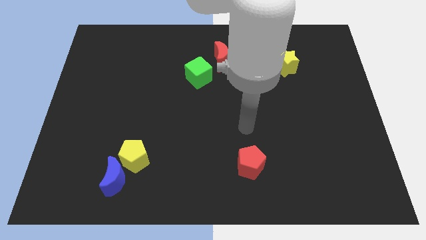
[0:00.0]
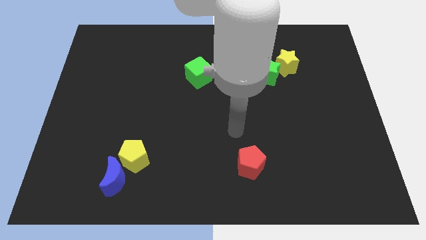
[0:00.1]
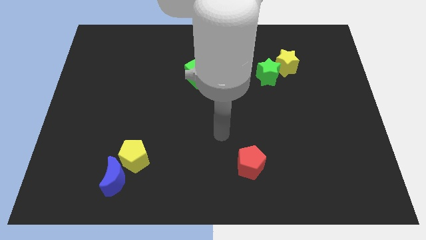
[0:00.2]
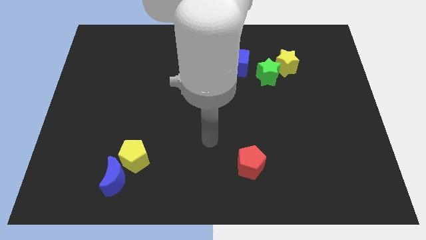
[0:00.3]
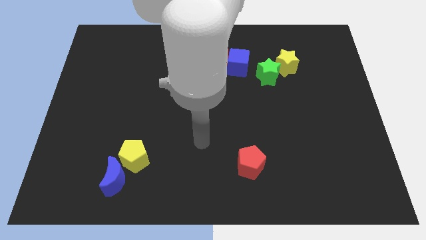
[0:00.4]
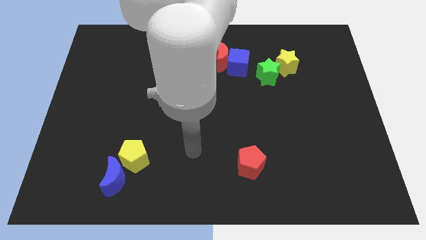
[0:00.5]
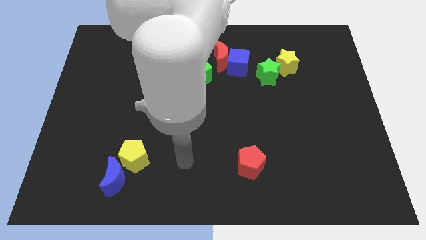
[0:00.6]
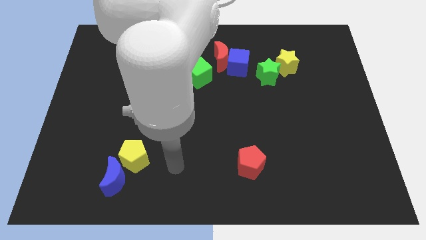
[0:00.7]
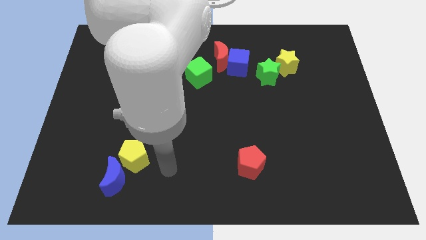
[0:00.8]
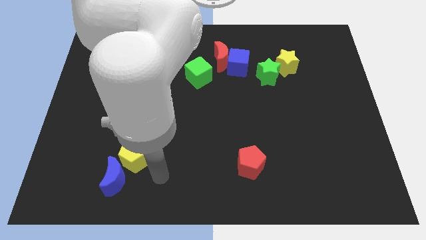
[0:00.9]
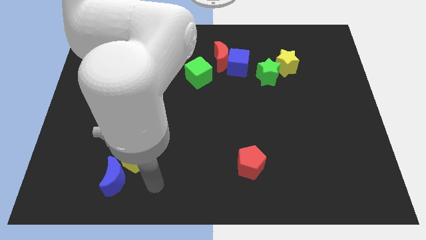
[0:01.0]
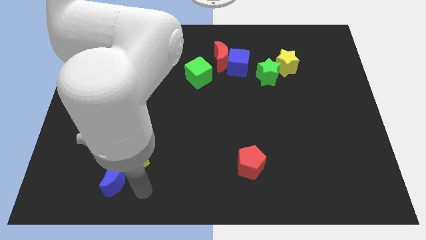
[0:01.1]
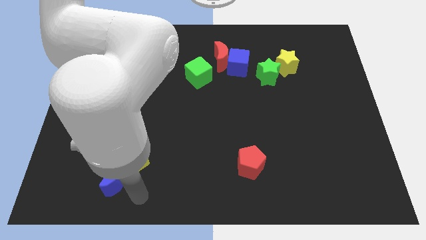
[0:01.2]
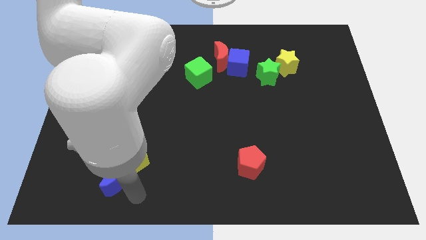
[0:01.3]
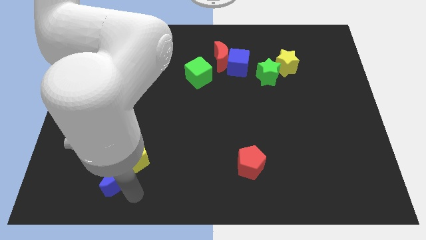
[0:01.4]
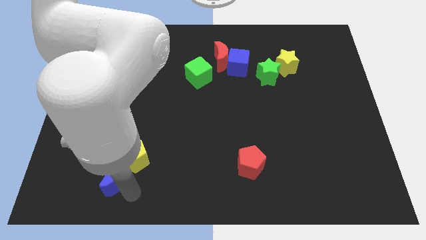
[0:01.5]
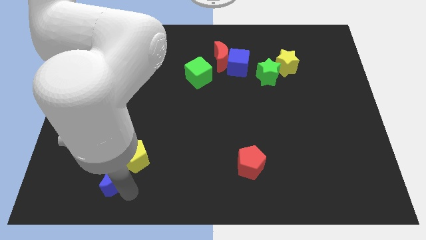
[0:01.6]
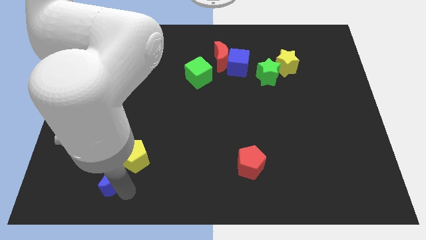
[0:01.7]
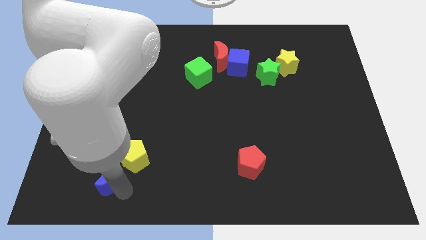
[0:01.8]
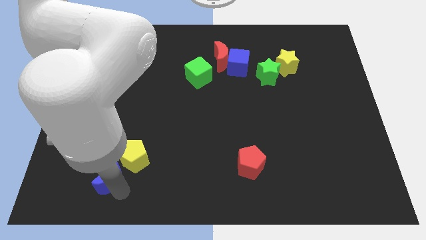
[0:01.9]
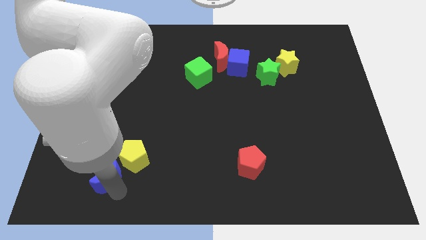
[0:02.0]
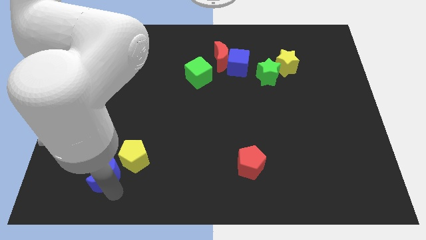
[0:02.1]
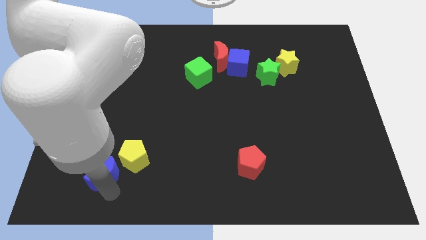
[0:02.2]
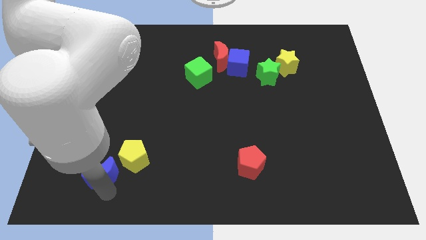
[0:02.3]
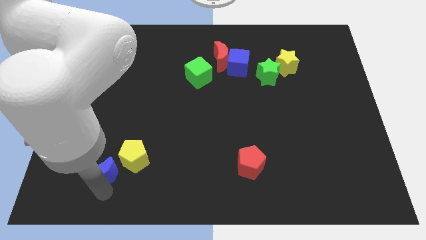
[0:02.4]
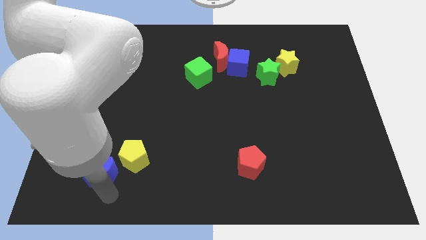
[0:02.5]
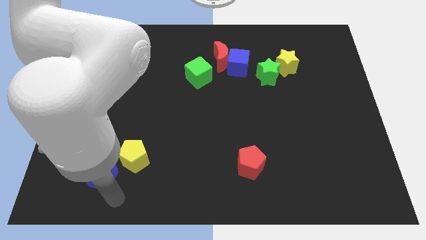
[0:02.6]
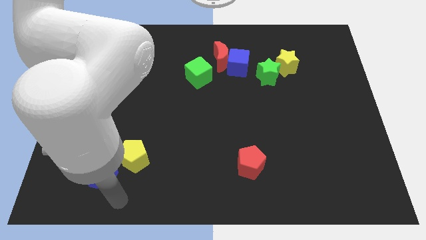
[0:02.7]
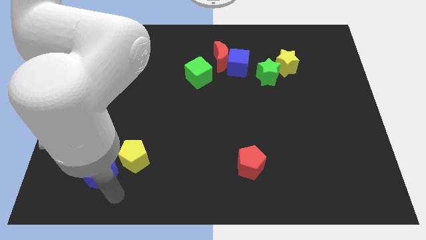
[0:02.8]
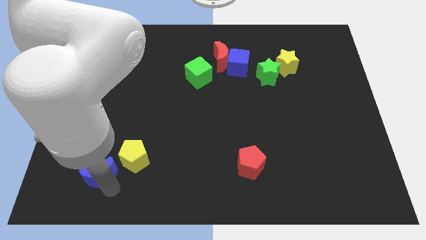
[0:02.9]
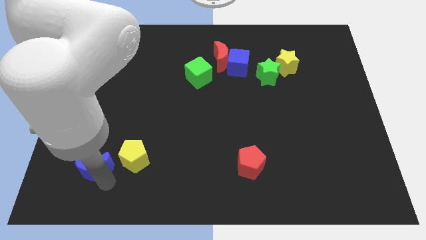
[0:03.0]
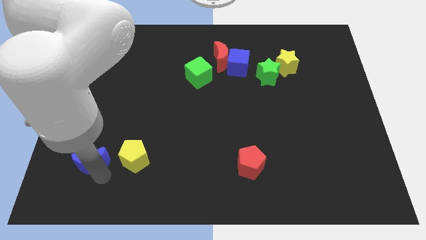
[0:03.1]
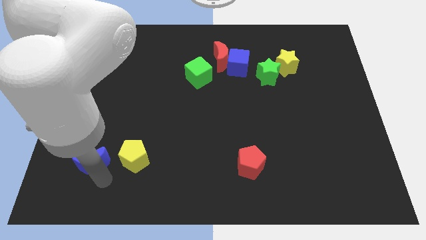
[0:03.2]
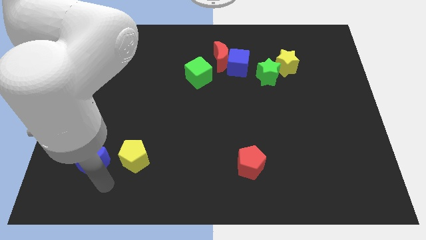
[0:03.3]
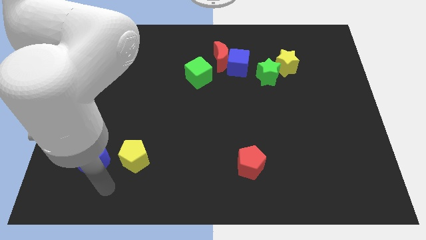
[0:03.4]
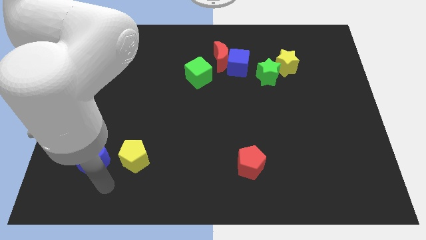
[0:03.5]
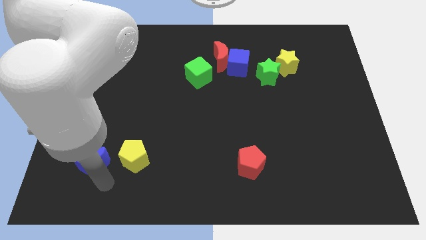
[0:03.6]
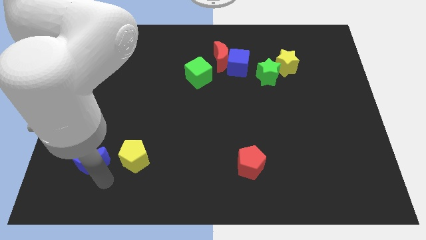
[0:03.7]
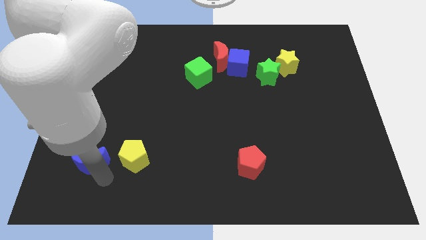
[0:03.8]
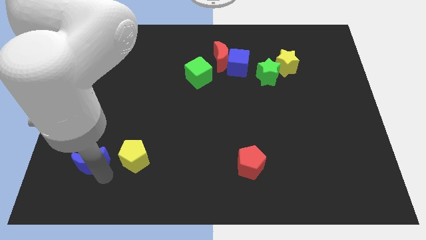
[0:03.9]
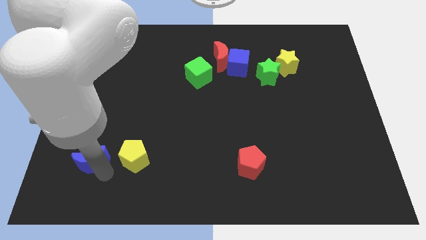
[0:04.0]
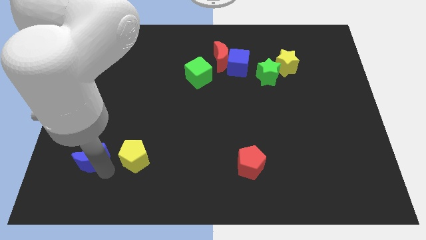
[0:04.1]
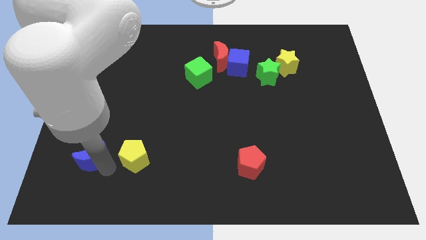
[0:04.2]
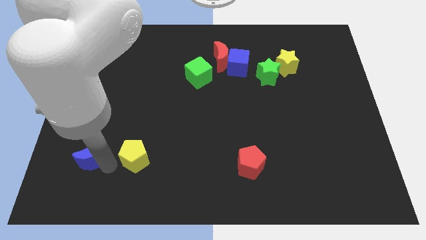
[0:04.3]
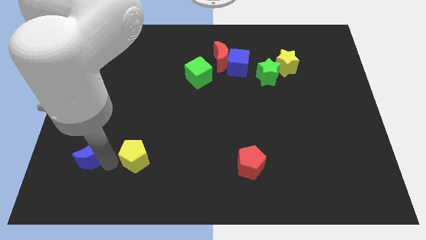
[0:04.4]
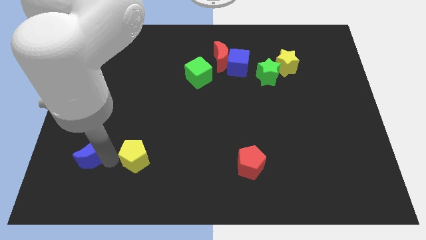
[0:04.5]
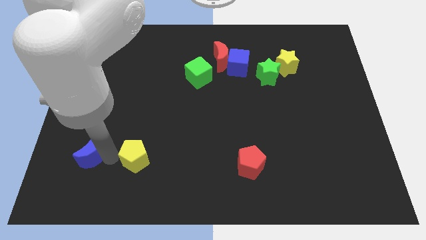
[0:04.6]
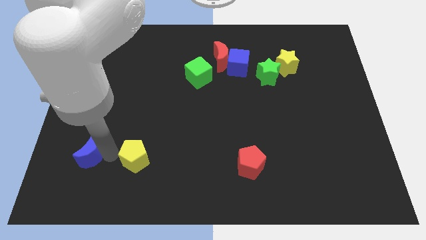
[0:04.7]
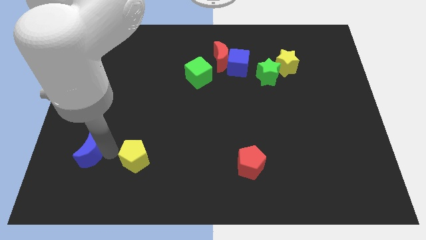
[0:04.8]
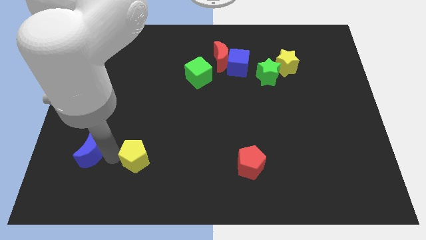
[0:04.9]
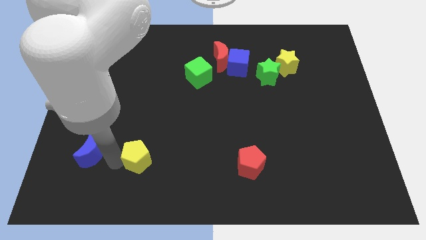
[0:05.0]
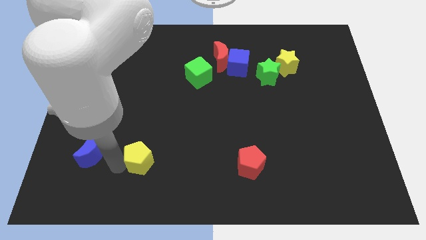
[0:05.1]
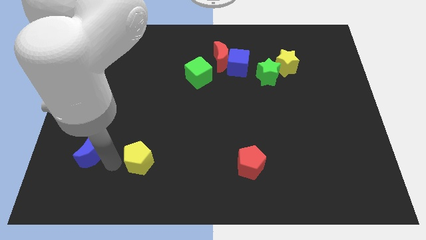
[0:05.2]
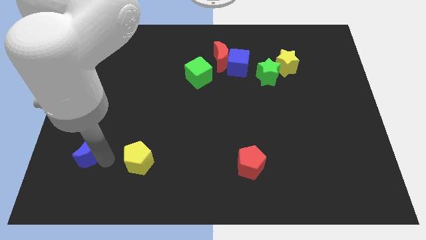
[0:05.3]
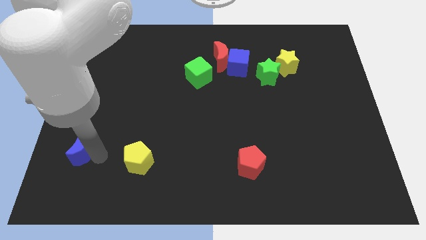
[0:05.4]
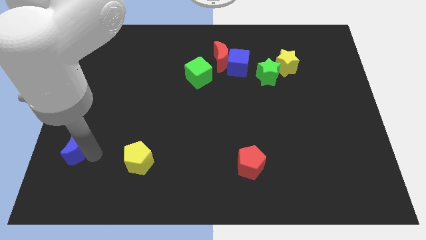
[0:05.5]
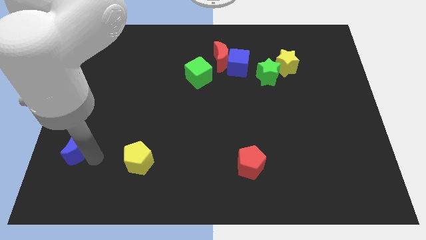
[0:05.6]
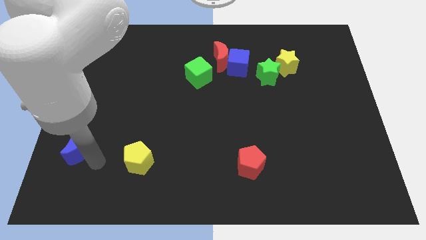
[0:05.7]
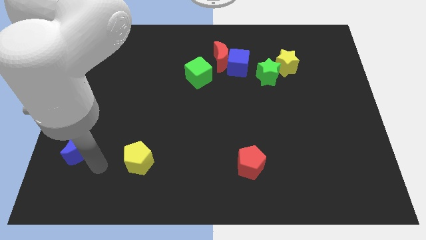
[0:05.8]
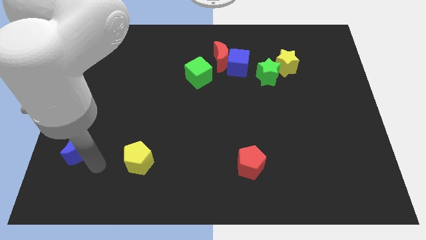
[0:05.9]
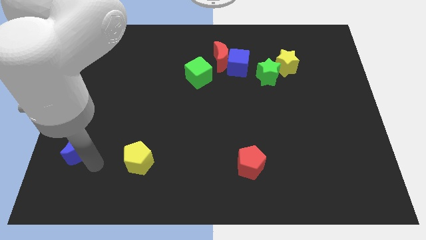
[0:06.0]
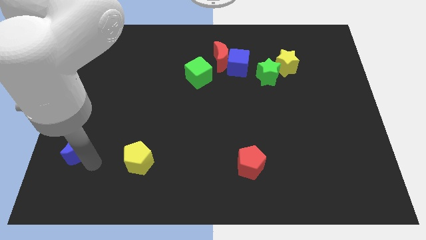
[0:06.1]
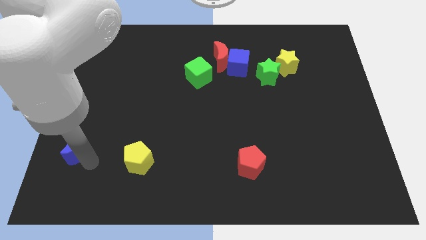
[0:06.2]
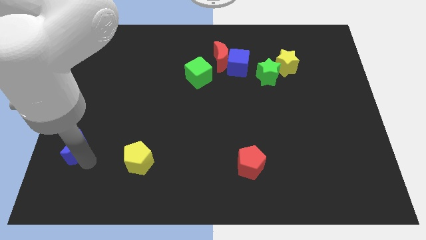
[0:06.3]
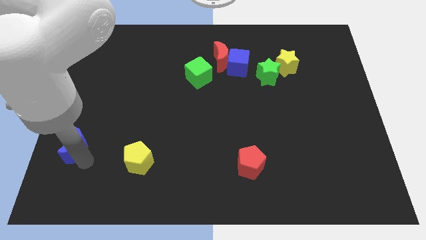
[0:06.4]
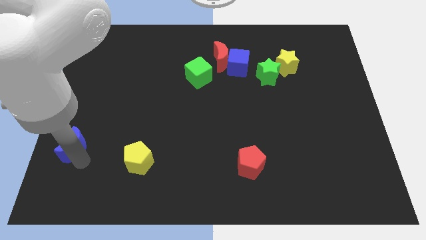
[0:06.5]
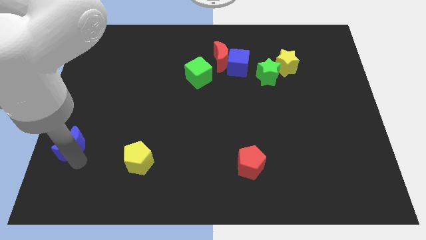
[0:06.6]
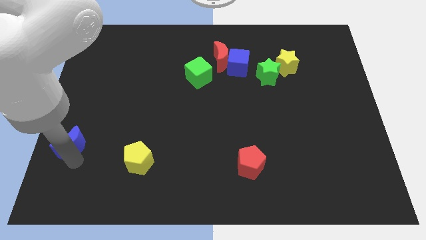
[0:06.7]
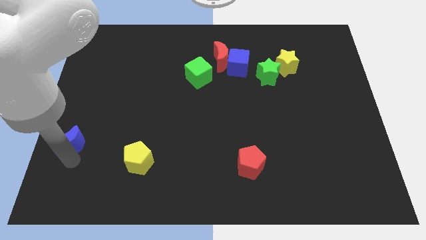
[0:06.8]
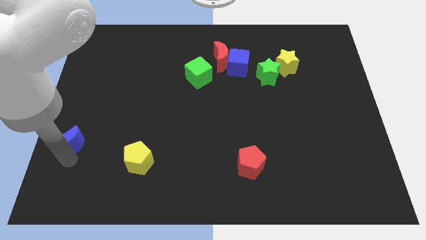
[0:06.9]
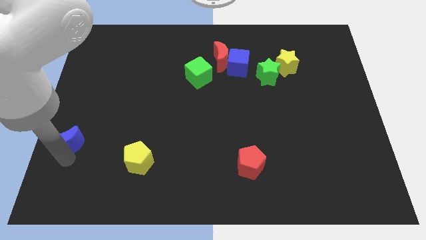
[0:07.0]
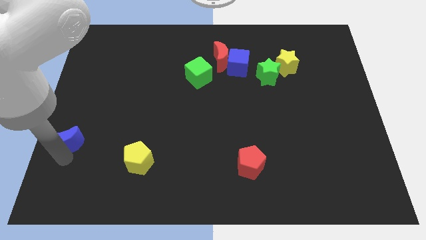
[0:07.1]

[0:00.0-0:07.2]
slide the blue moon to the left side of the board

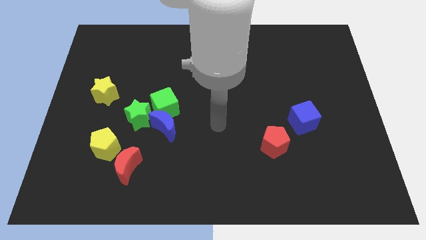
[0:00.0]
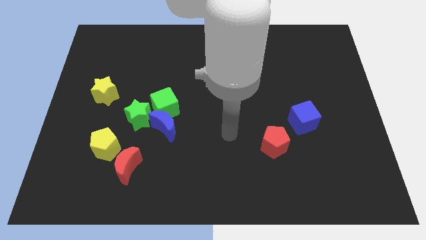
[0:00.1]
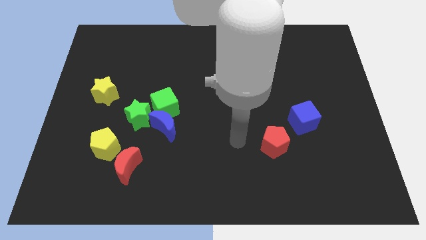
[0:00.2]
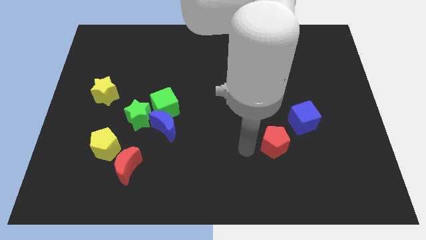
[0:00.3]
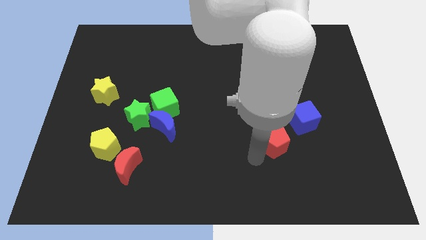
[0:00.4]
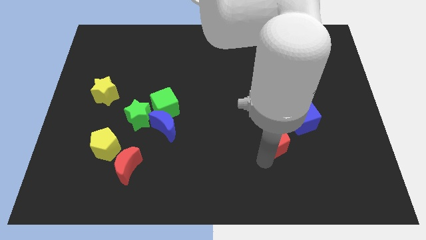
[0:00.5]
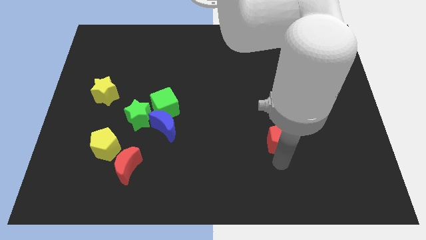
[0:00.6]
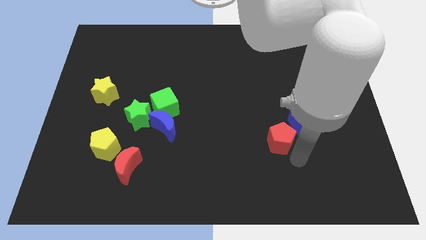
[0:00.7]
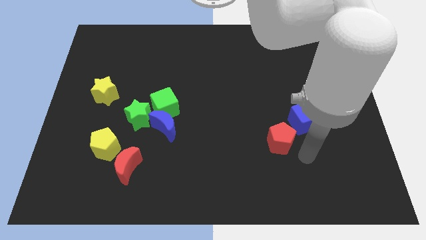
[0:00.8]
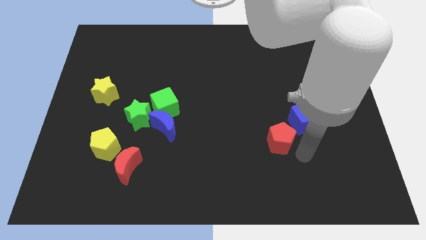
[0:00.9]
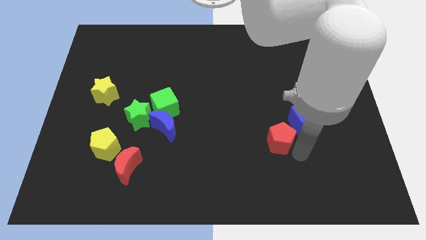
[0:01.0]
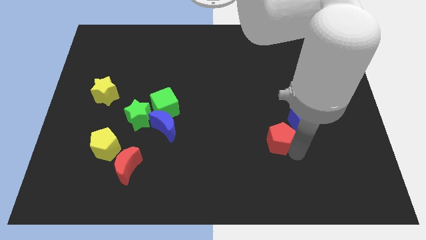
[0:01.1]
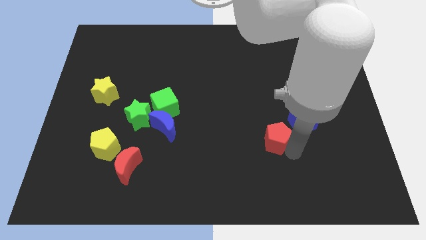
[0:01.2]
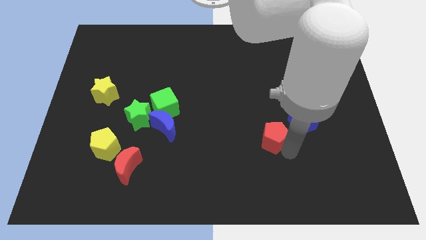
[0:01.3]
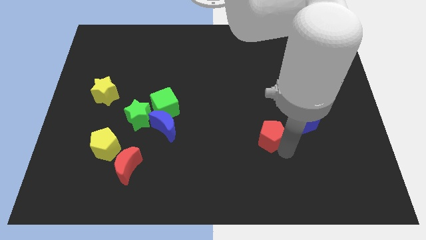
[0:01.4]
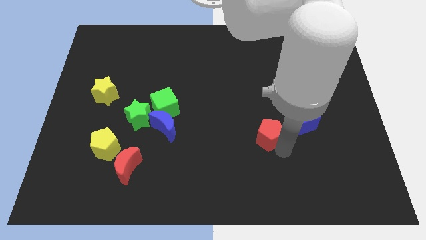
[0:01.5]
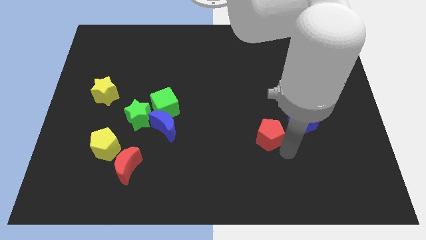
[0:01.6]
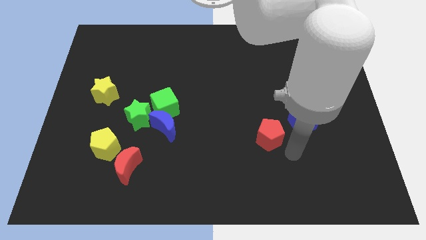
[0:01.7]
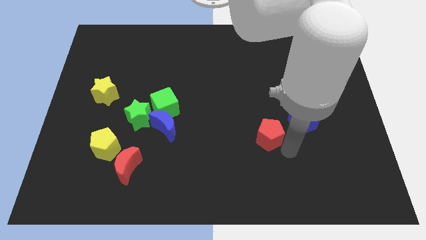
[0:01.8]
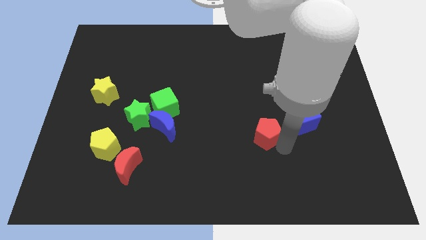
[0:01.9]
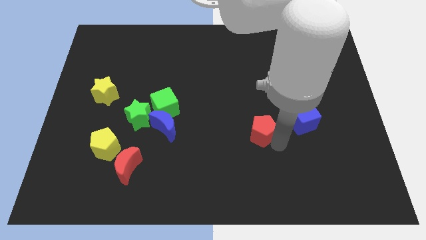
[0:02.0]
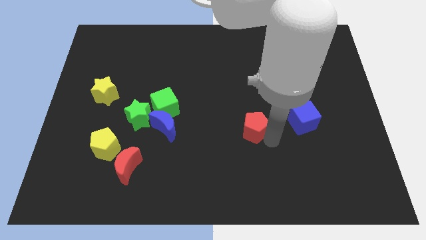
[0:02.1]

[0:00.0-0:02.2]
slide the red pentagon to the center
